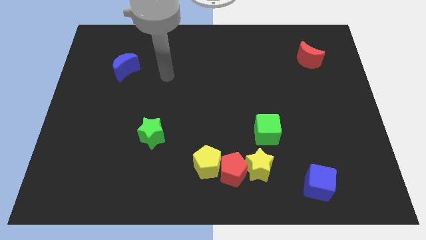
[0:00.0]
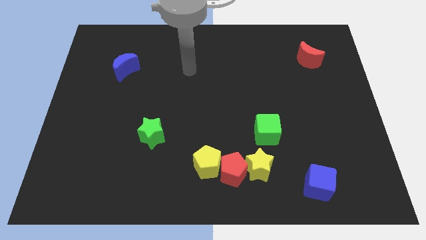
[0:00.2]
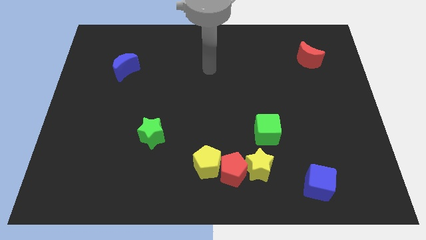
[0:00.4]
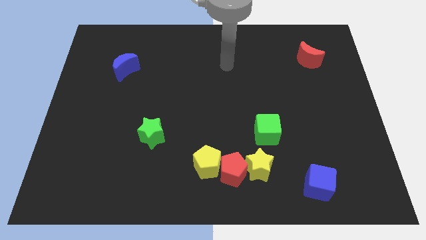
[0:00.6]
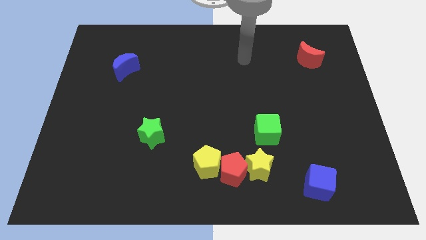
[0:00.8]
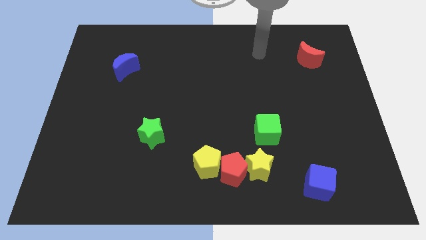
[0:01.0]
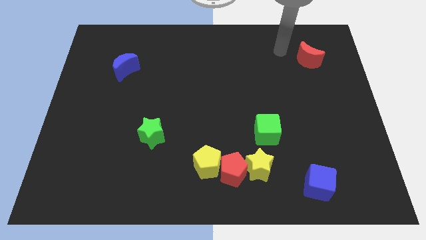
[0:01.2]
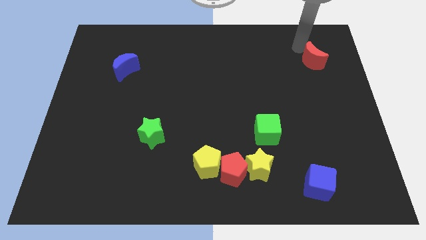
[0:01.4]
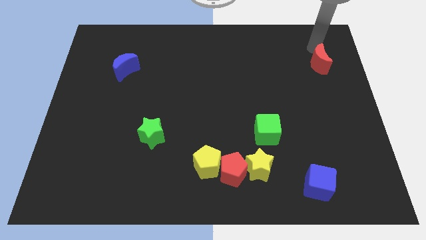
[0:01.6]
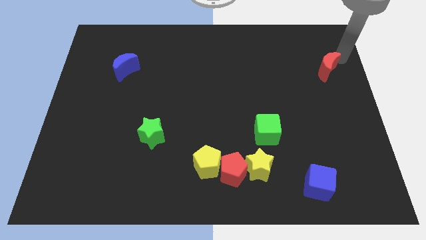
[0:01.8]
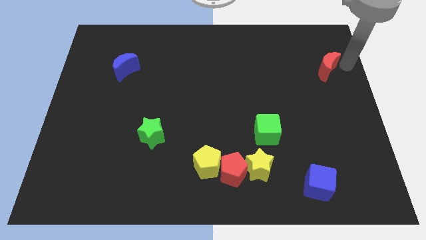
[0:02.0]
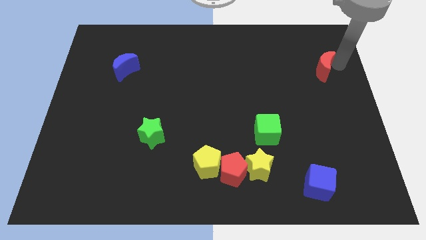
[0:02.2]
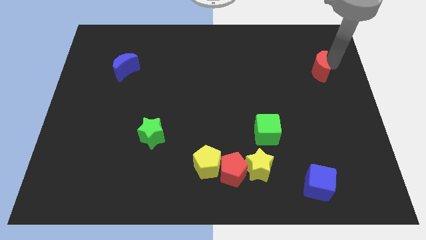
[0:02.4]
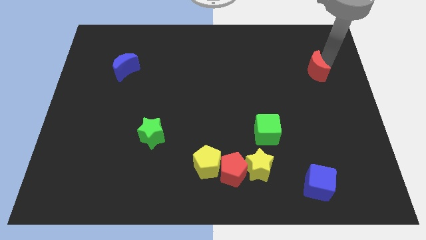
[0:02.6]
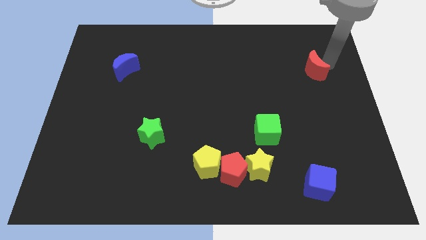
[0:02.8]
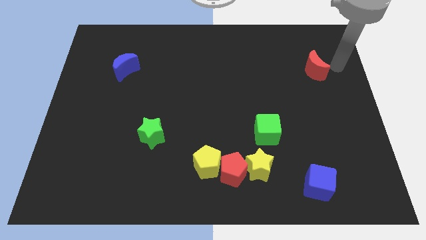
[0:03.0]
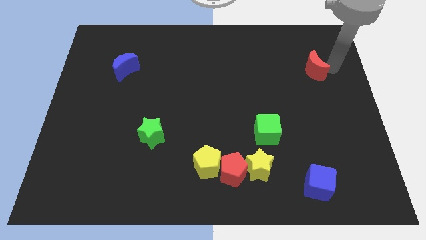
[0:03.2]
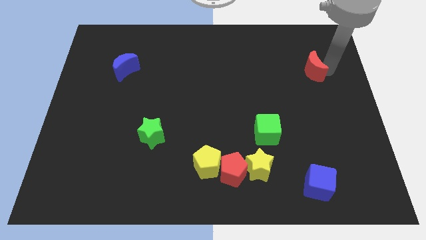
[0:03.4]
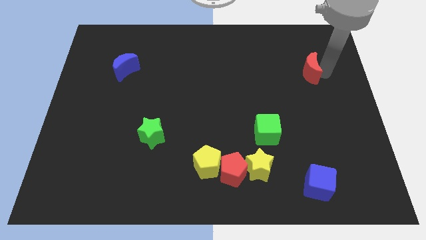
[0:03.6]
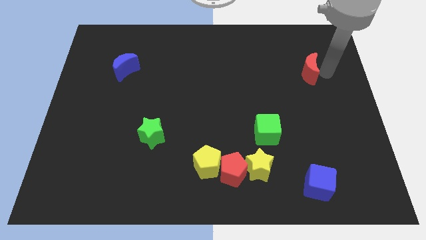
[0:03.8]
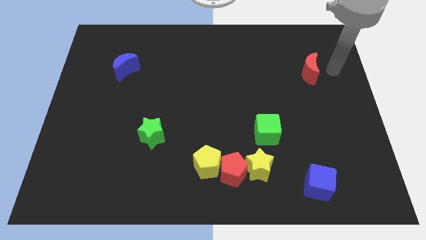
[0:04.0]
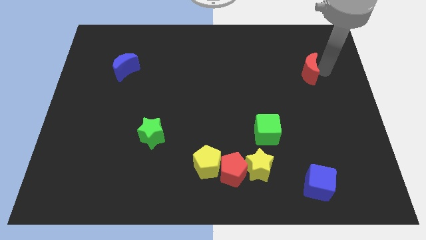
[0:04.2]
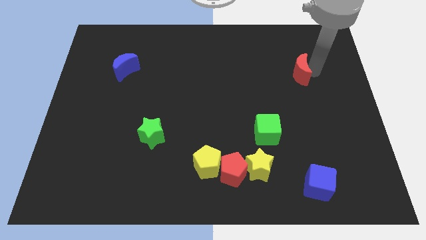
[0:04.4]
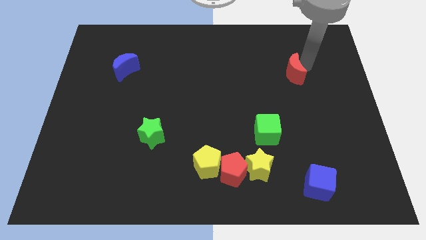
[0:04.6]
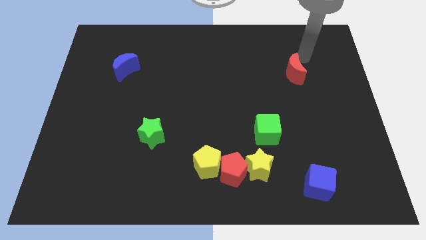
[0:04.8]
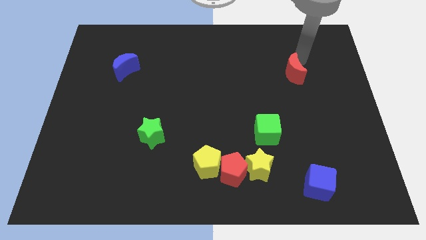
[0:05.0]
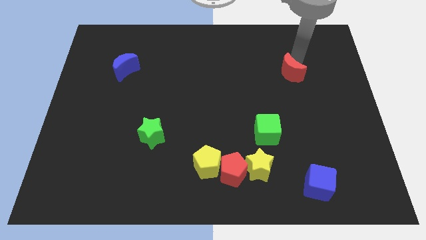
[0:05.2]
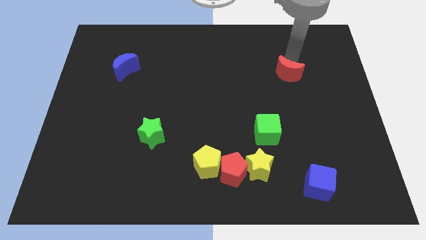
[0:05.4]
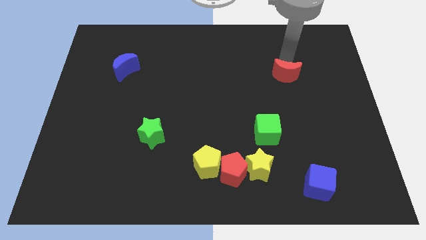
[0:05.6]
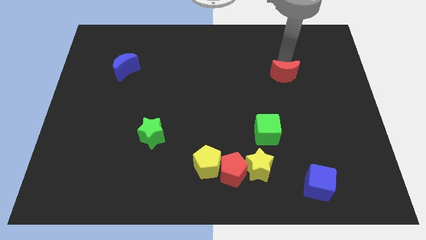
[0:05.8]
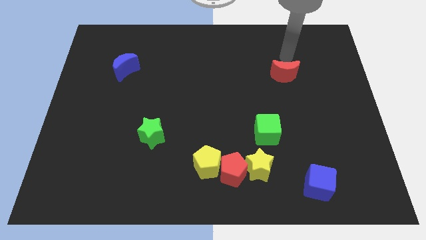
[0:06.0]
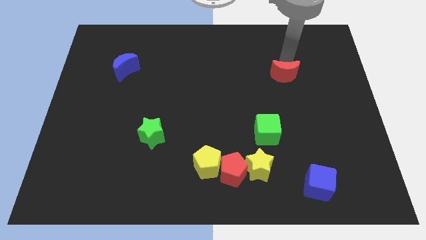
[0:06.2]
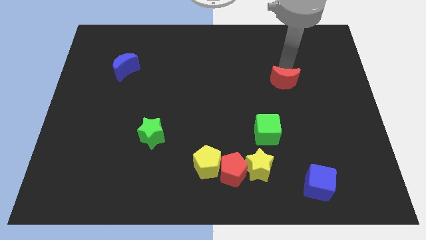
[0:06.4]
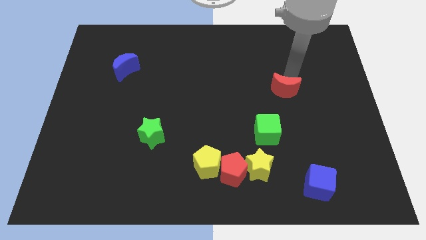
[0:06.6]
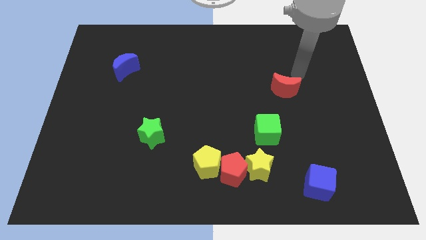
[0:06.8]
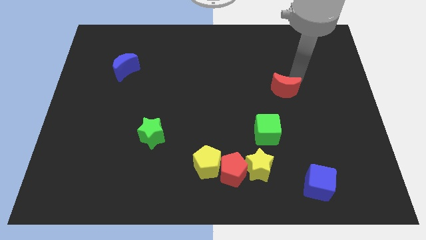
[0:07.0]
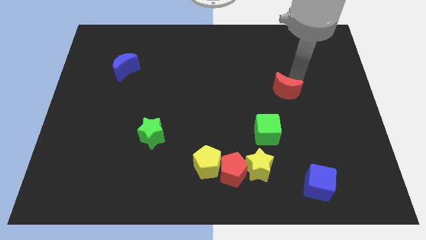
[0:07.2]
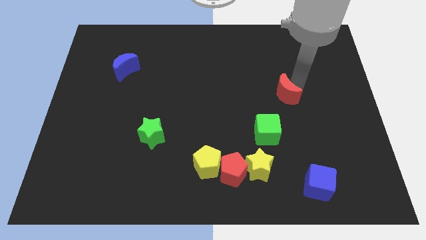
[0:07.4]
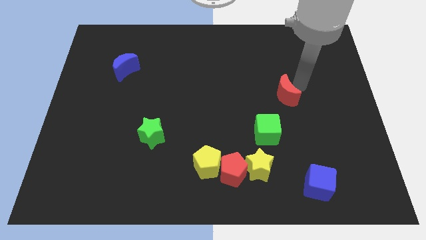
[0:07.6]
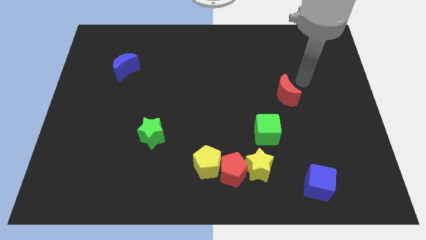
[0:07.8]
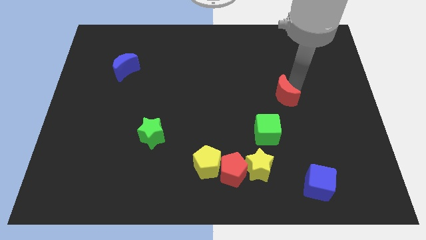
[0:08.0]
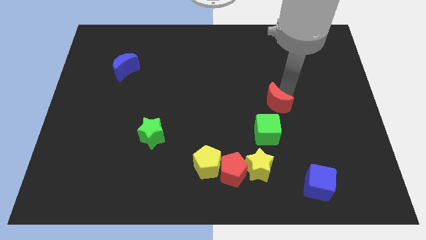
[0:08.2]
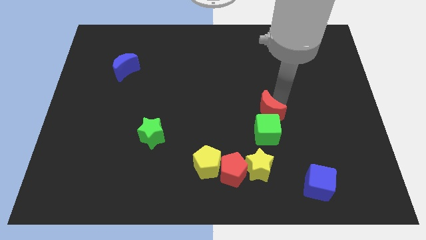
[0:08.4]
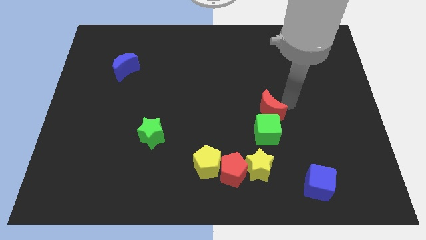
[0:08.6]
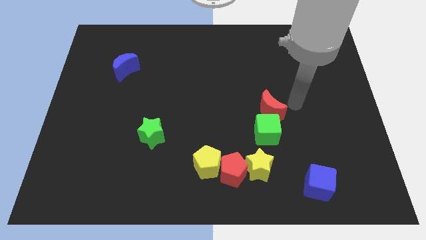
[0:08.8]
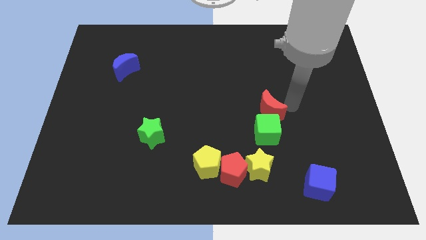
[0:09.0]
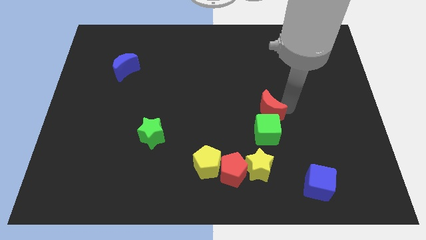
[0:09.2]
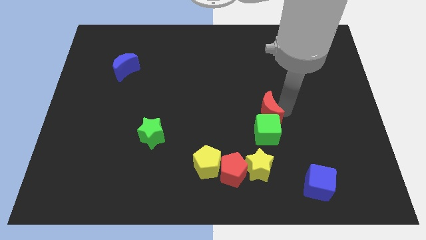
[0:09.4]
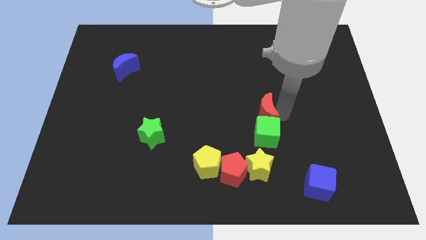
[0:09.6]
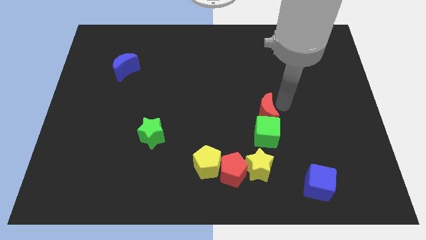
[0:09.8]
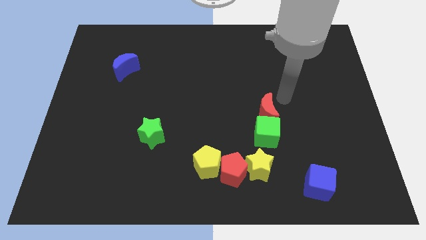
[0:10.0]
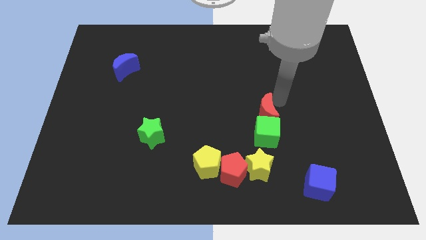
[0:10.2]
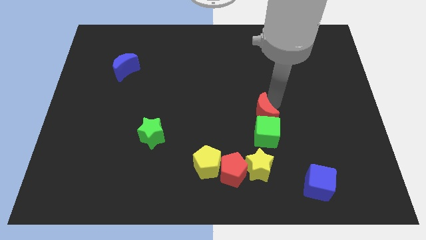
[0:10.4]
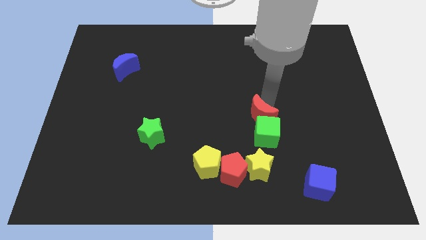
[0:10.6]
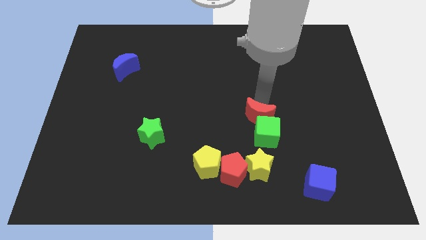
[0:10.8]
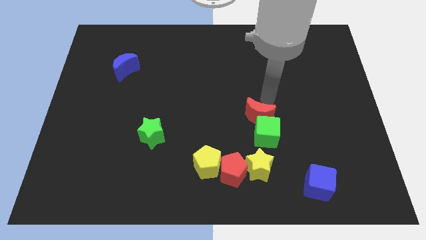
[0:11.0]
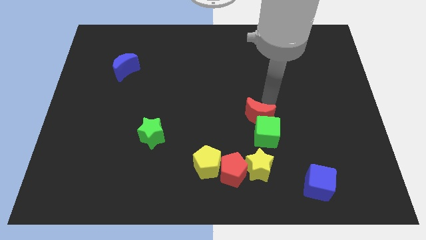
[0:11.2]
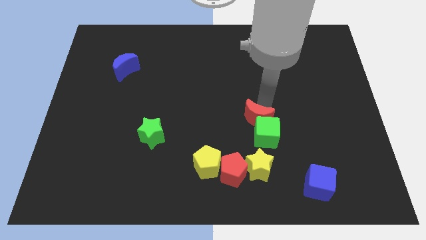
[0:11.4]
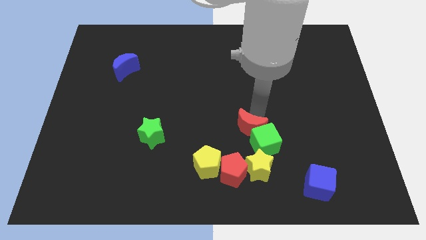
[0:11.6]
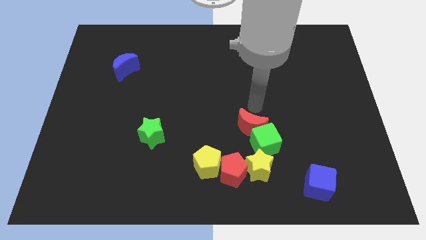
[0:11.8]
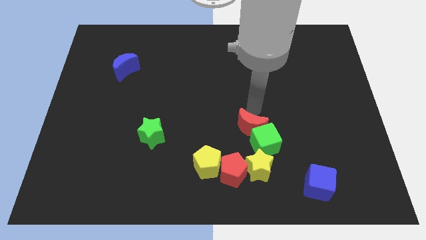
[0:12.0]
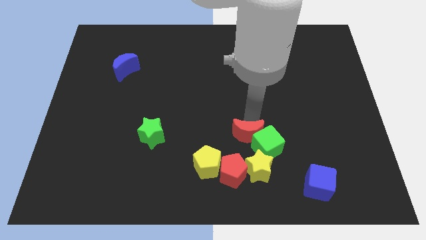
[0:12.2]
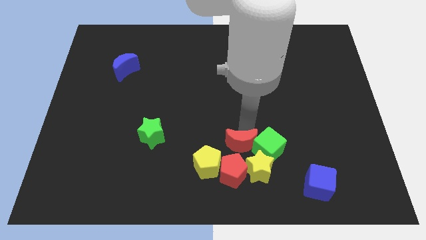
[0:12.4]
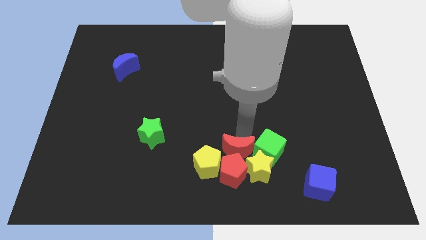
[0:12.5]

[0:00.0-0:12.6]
move the red moon towards the red pentagon
